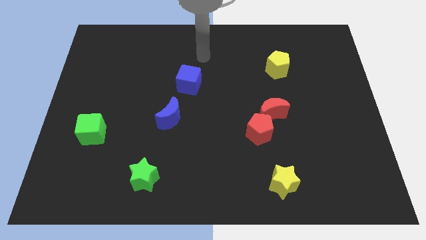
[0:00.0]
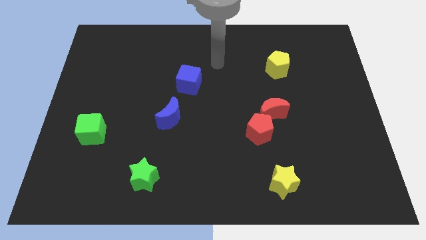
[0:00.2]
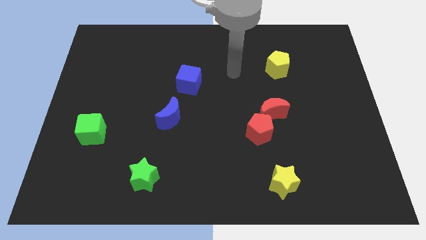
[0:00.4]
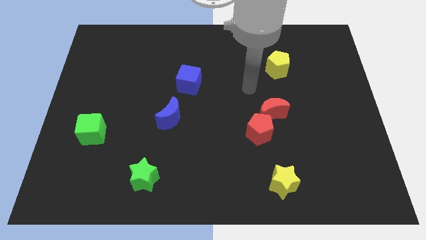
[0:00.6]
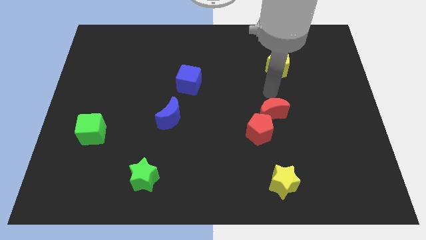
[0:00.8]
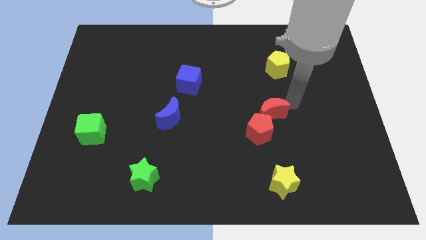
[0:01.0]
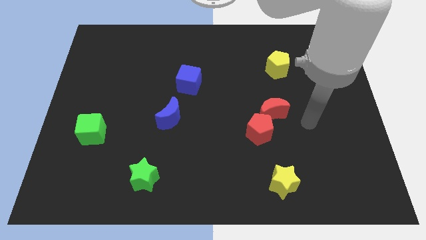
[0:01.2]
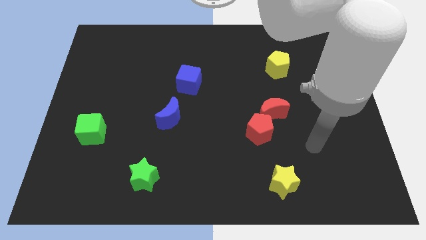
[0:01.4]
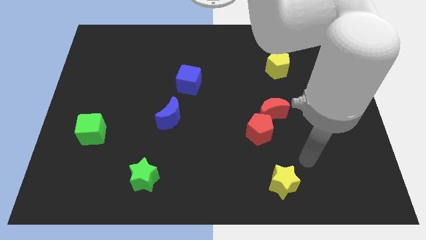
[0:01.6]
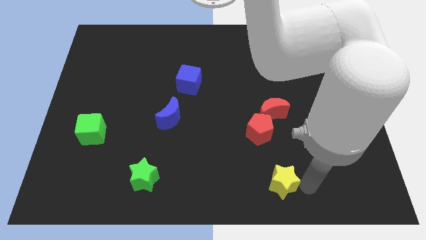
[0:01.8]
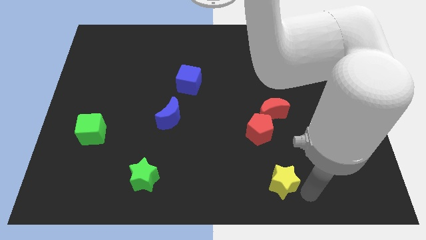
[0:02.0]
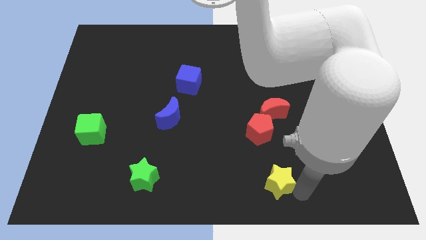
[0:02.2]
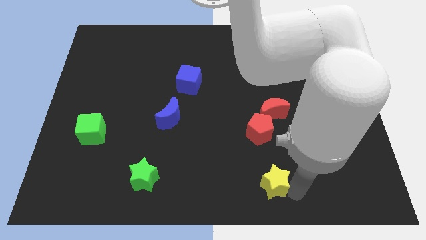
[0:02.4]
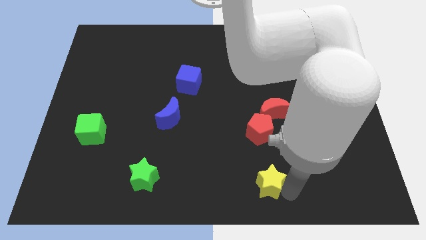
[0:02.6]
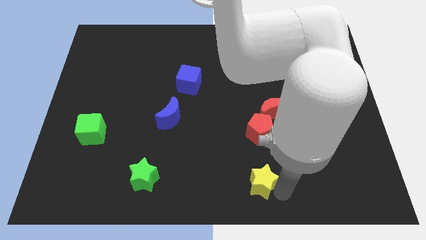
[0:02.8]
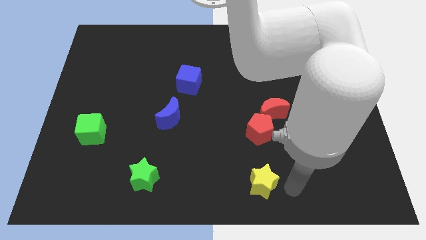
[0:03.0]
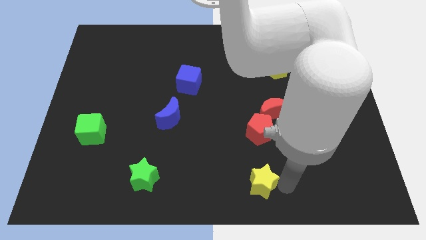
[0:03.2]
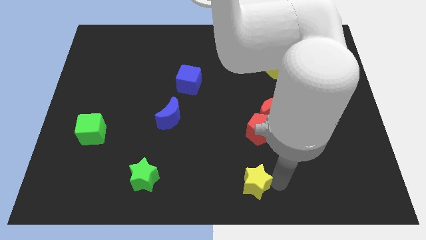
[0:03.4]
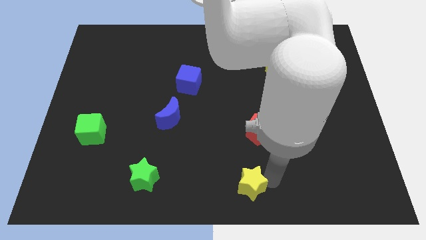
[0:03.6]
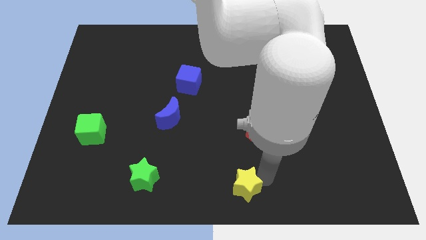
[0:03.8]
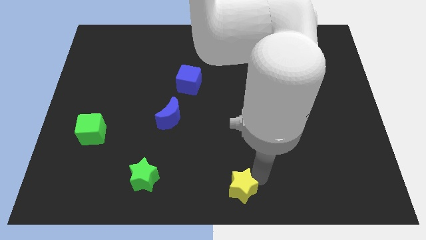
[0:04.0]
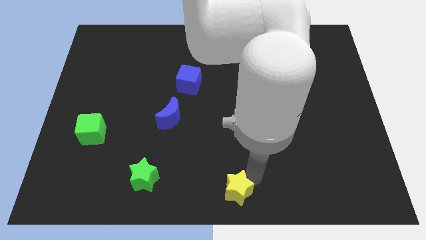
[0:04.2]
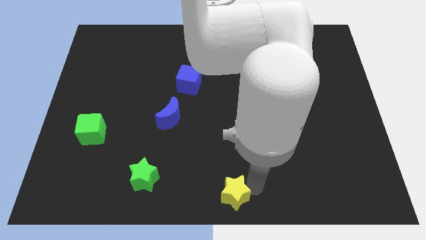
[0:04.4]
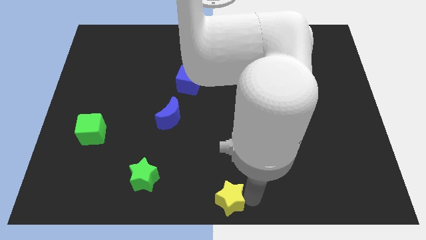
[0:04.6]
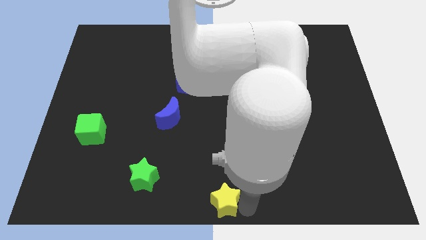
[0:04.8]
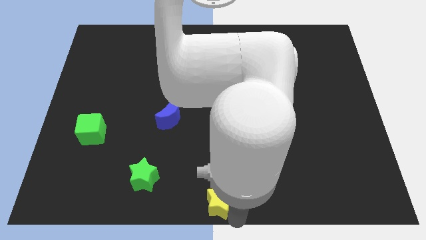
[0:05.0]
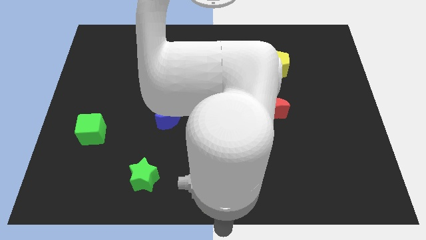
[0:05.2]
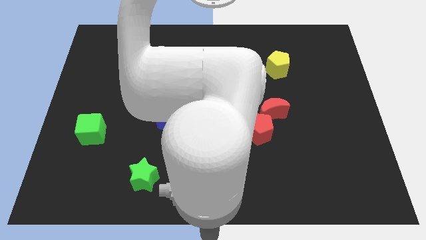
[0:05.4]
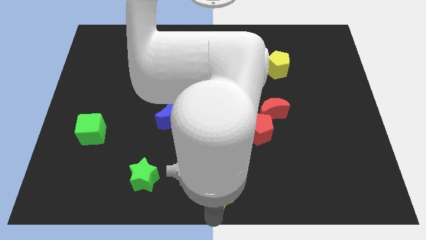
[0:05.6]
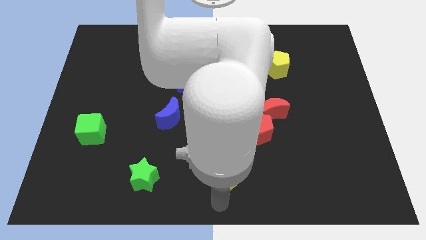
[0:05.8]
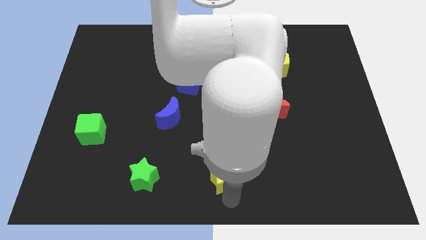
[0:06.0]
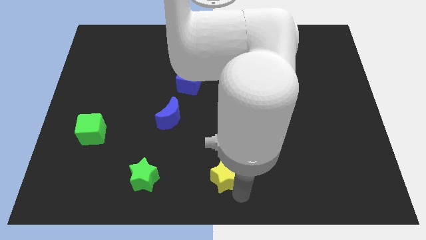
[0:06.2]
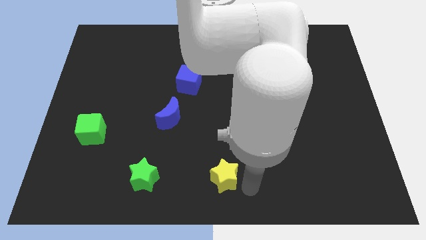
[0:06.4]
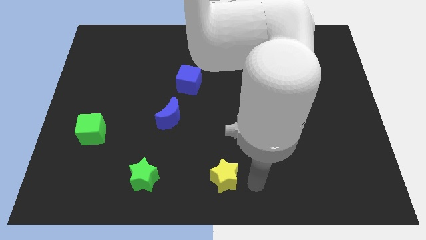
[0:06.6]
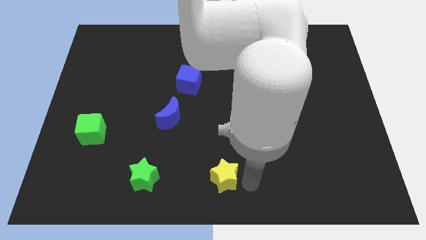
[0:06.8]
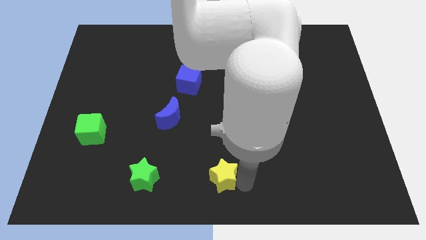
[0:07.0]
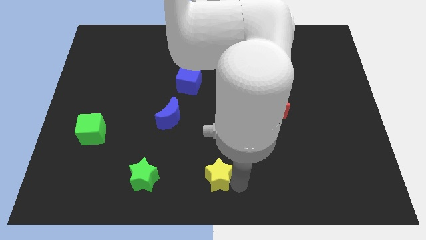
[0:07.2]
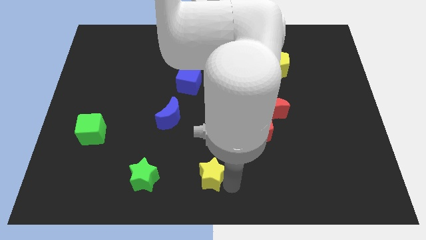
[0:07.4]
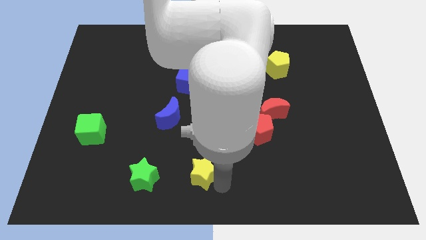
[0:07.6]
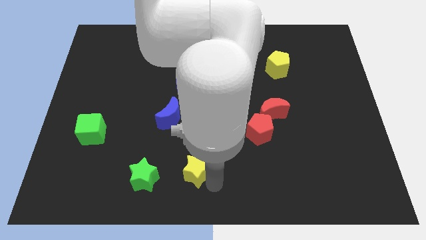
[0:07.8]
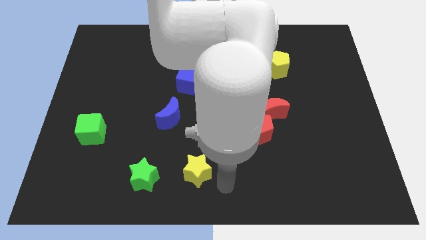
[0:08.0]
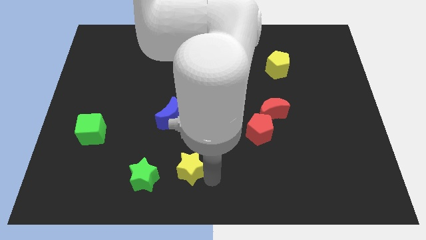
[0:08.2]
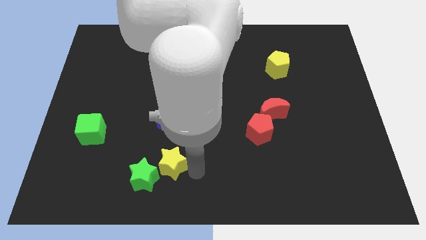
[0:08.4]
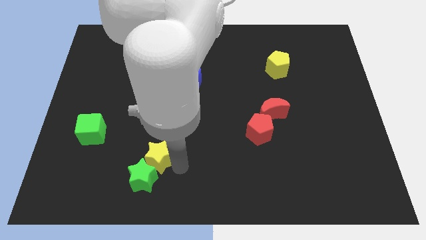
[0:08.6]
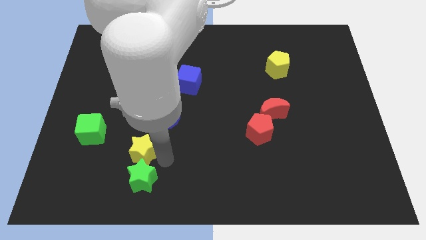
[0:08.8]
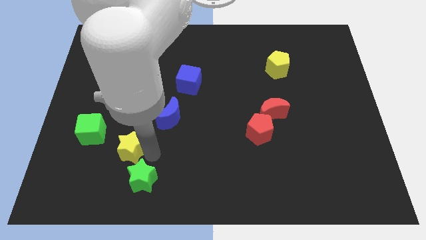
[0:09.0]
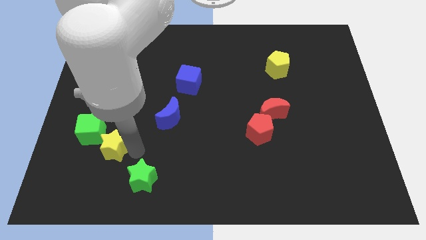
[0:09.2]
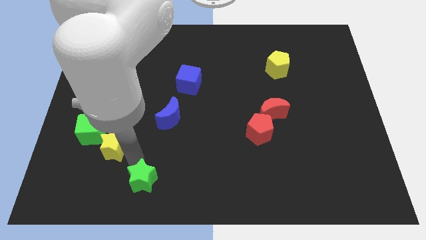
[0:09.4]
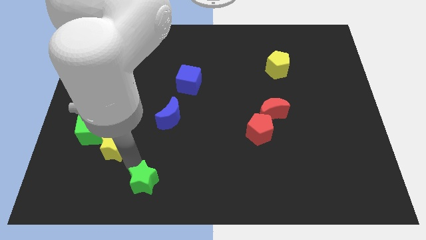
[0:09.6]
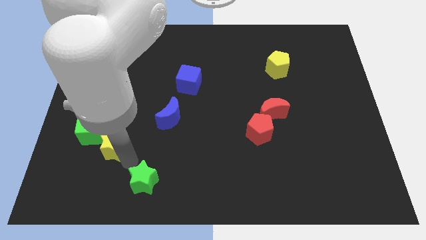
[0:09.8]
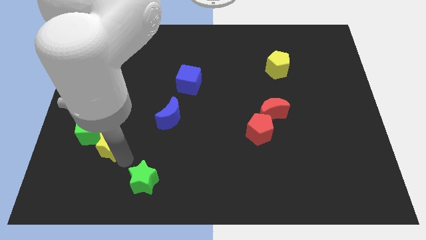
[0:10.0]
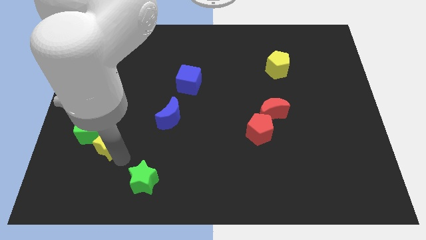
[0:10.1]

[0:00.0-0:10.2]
push the yellow star to the green cube

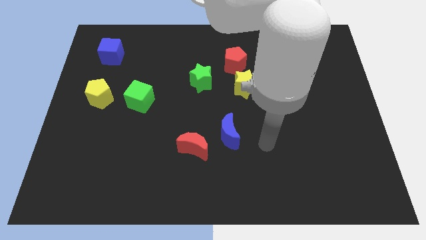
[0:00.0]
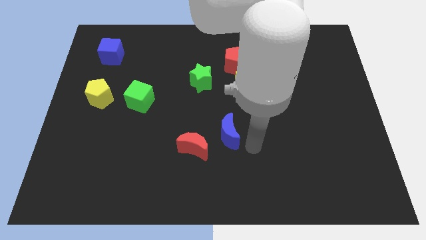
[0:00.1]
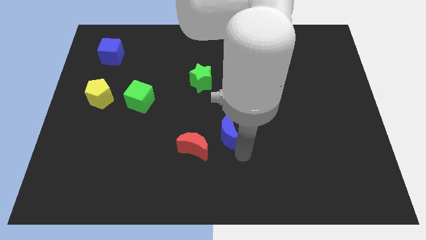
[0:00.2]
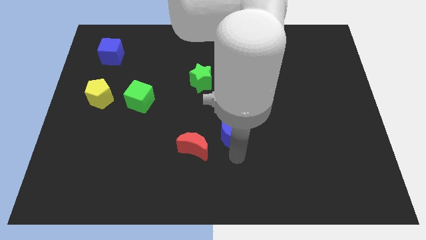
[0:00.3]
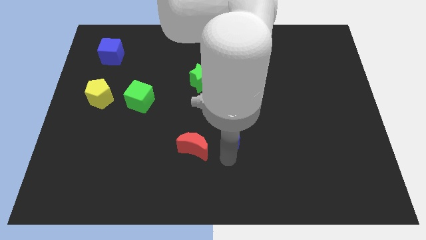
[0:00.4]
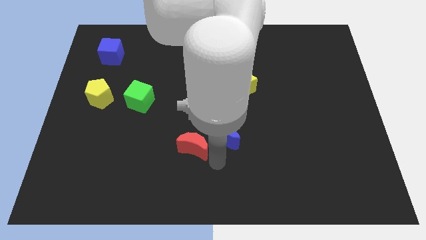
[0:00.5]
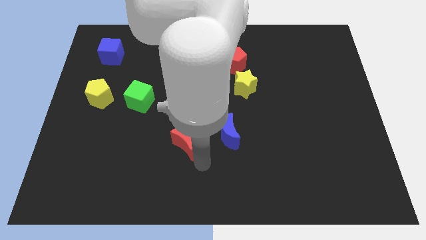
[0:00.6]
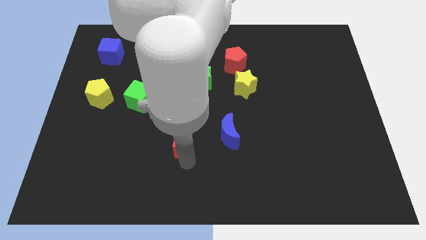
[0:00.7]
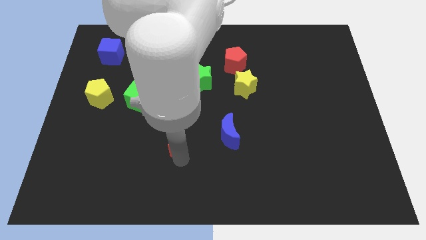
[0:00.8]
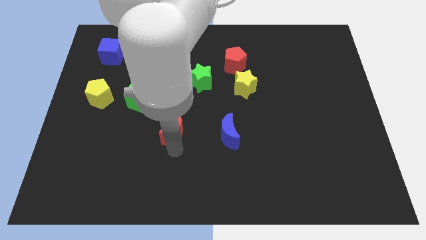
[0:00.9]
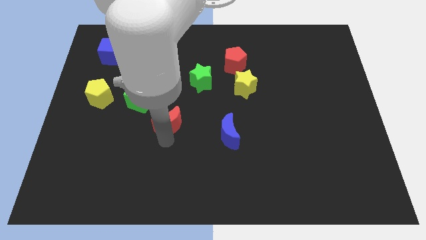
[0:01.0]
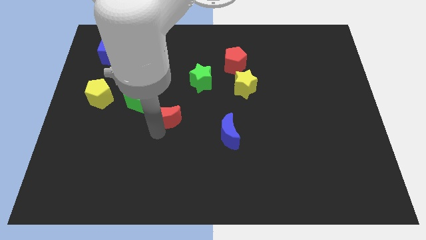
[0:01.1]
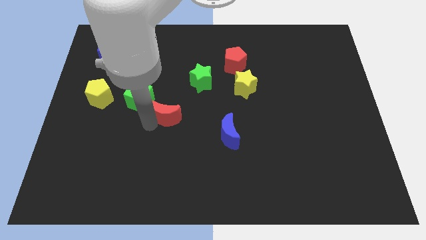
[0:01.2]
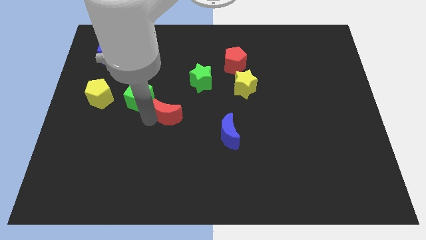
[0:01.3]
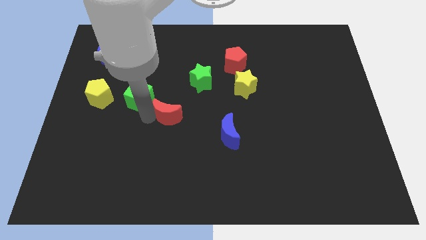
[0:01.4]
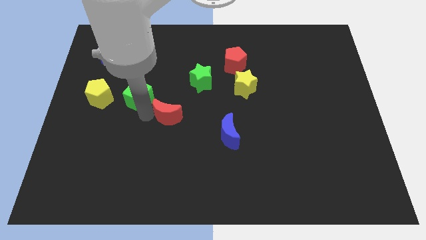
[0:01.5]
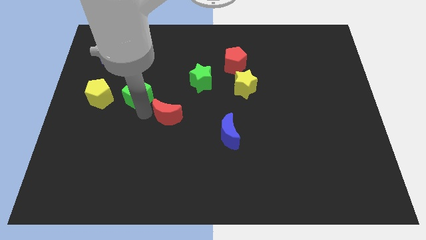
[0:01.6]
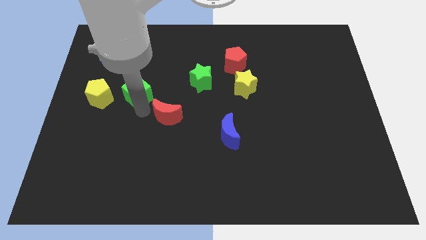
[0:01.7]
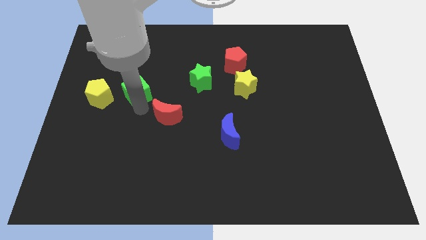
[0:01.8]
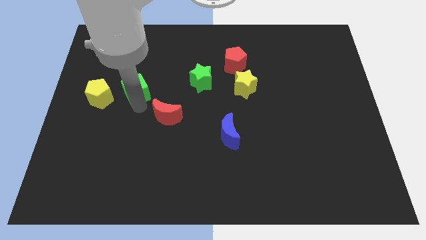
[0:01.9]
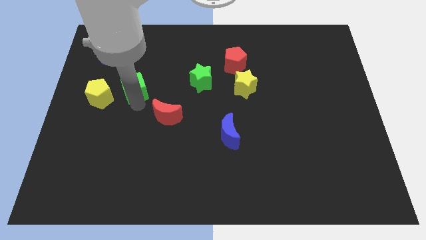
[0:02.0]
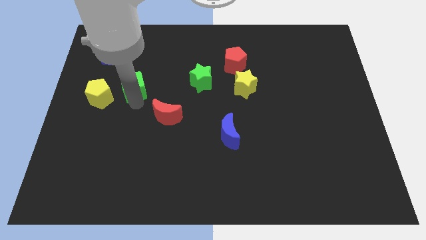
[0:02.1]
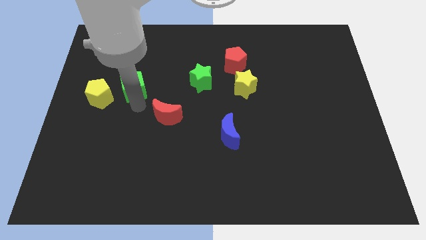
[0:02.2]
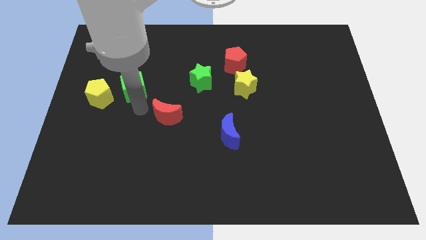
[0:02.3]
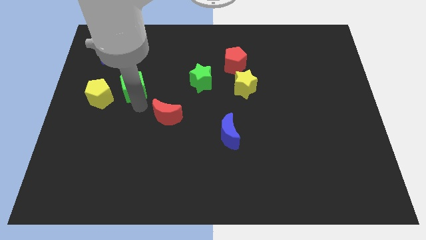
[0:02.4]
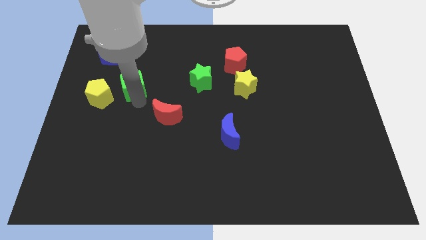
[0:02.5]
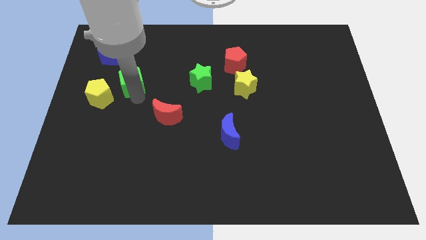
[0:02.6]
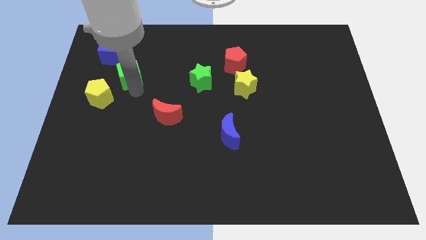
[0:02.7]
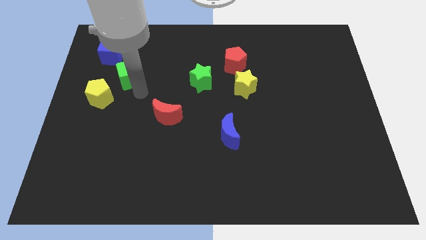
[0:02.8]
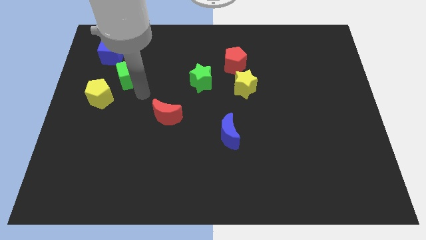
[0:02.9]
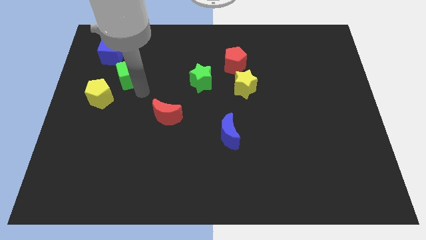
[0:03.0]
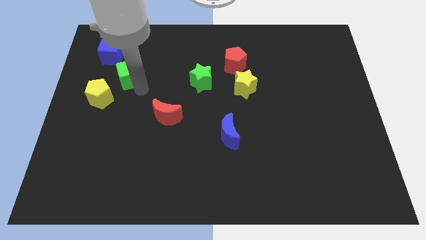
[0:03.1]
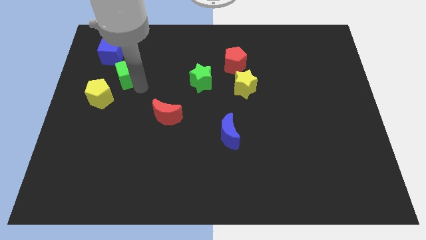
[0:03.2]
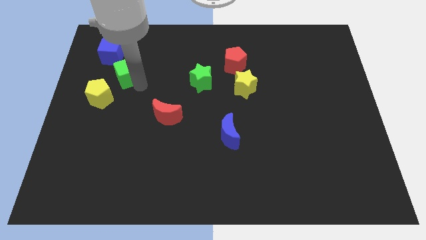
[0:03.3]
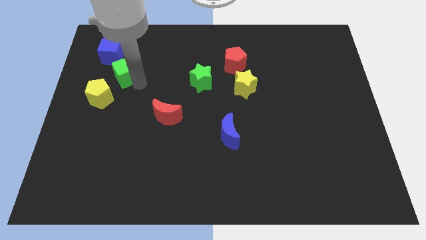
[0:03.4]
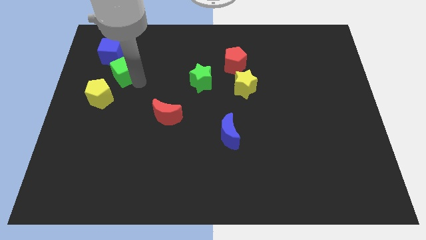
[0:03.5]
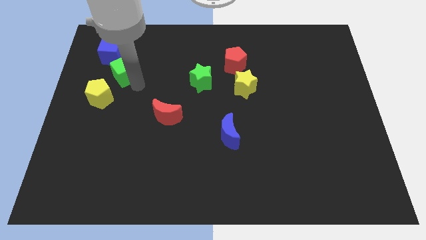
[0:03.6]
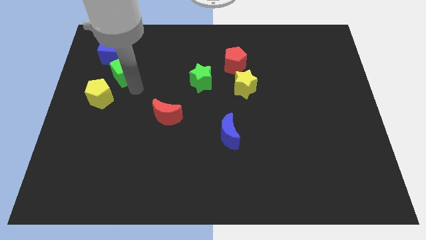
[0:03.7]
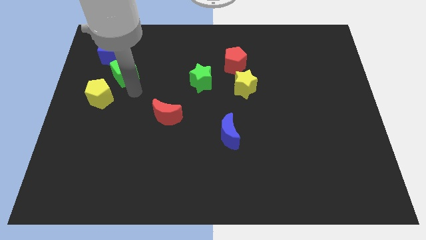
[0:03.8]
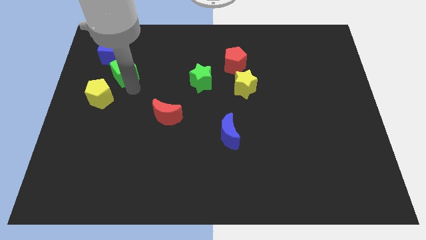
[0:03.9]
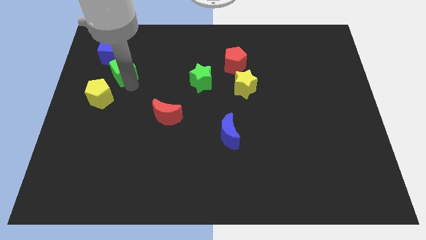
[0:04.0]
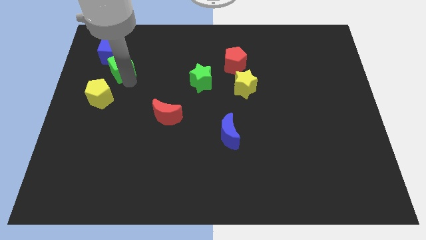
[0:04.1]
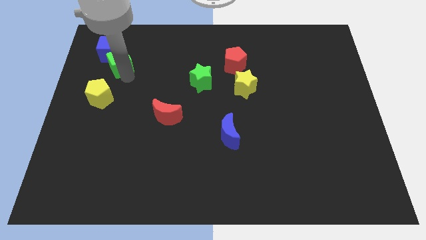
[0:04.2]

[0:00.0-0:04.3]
put the green cube close to the blue cube
